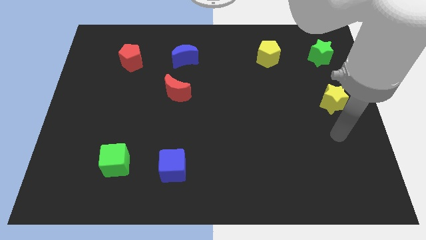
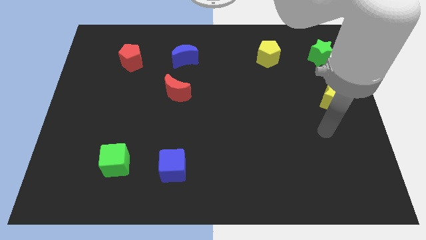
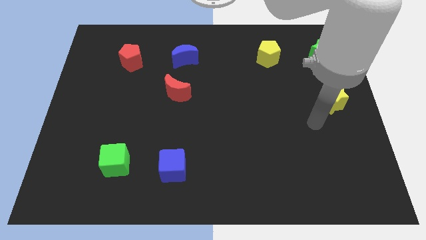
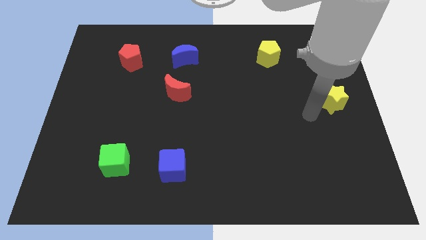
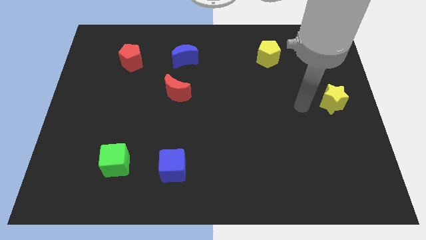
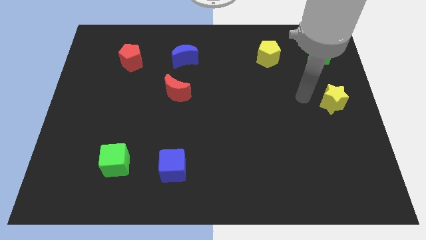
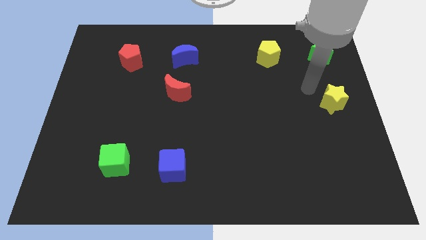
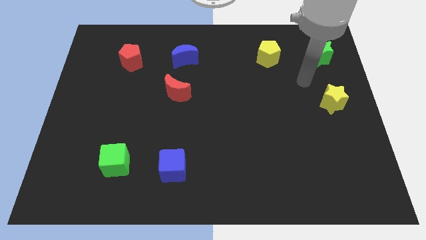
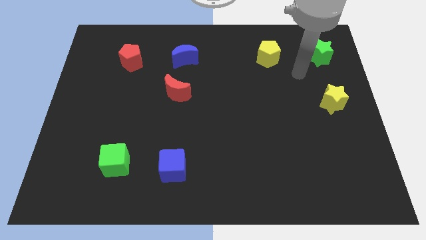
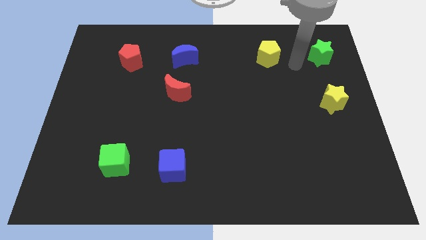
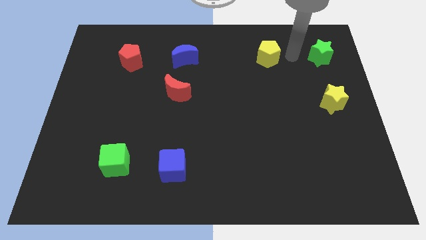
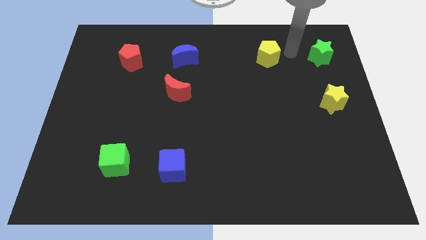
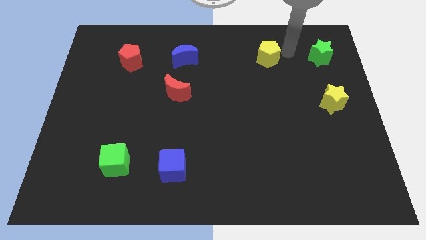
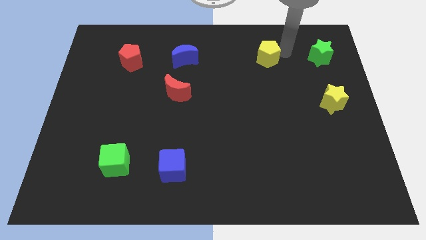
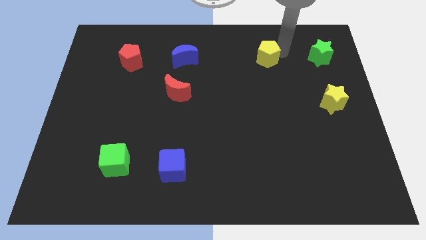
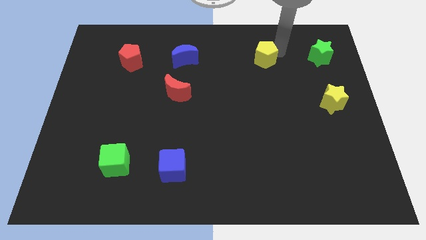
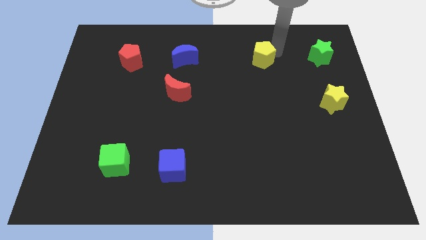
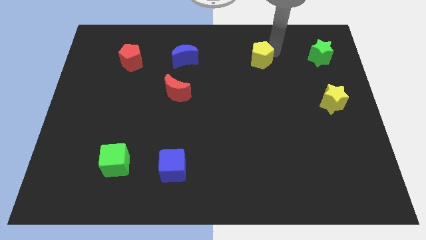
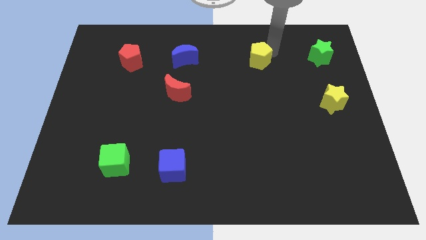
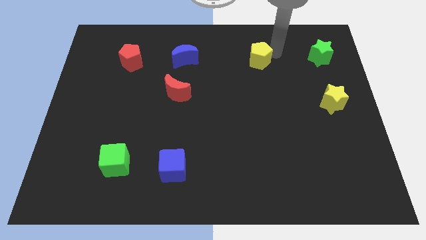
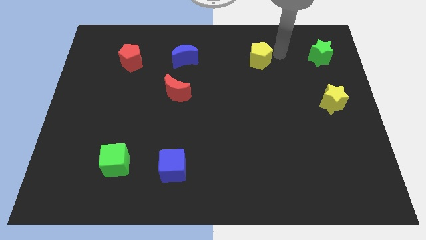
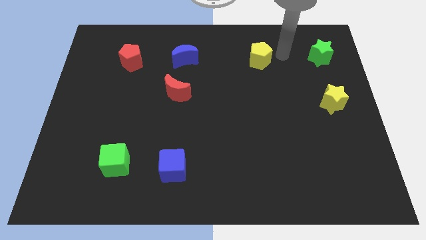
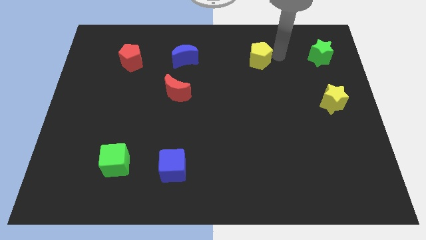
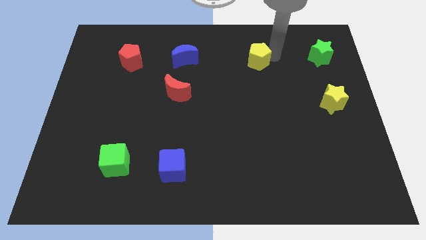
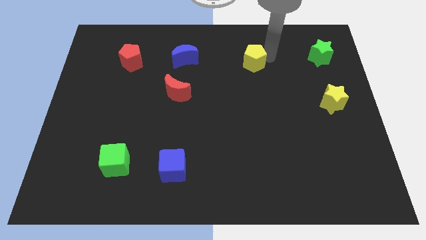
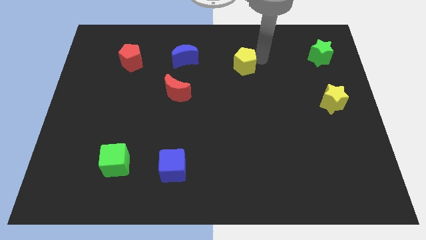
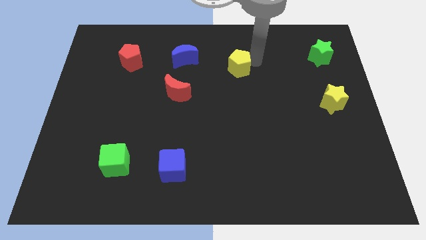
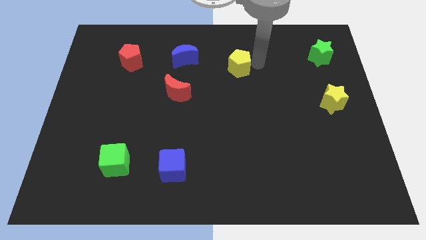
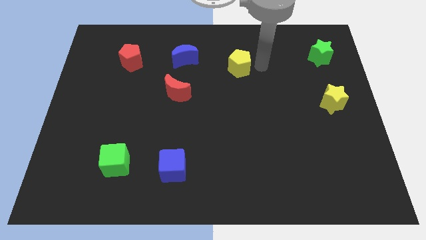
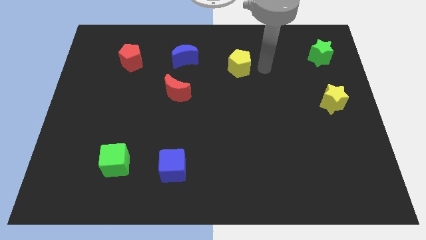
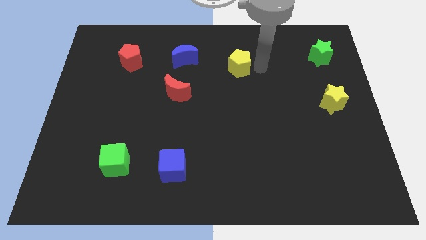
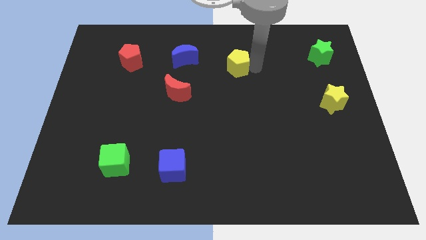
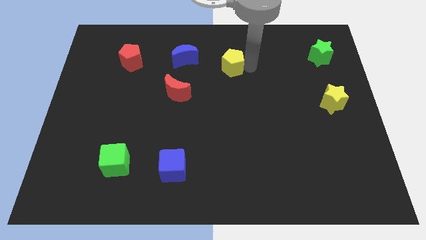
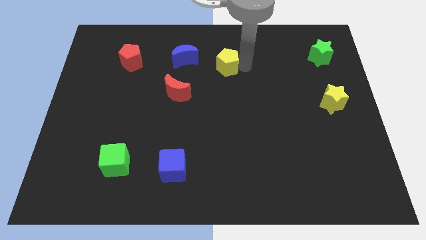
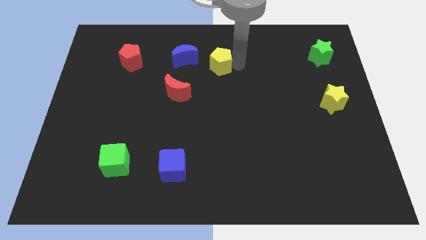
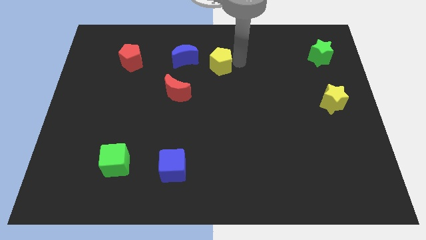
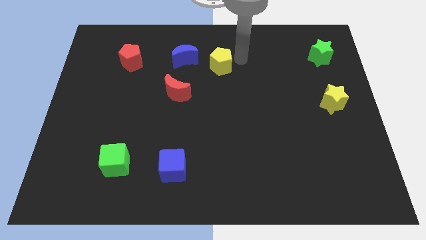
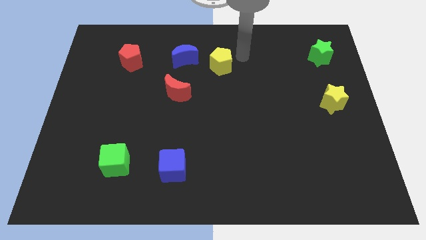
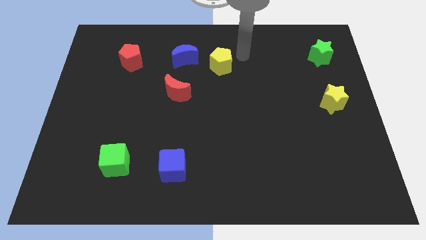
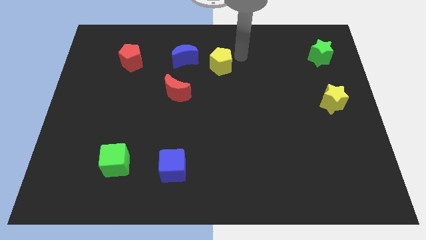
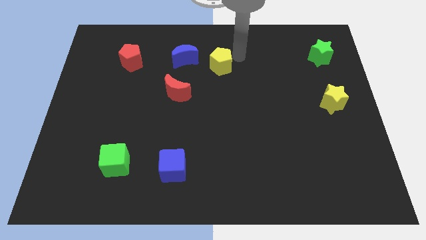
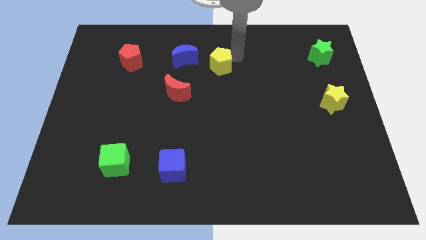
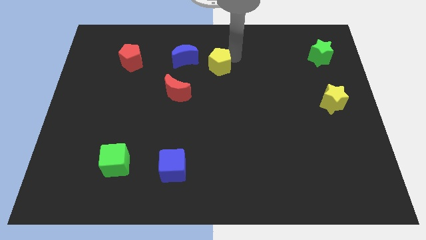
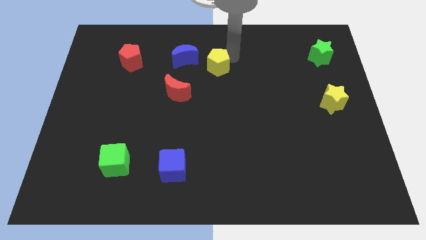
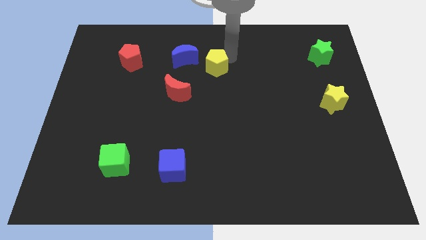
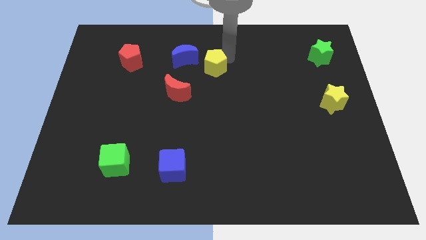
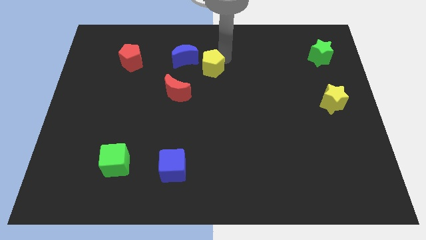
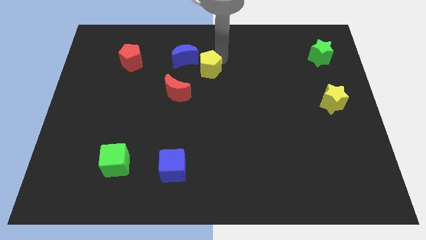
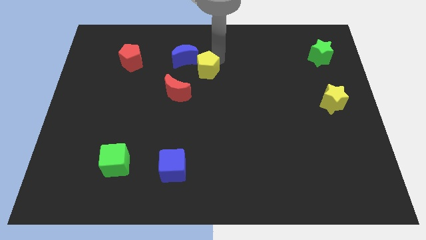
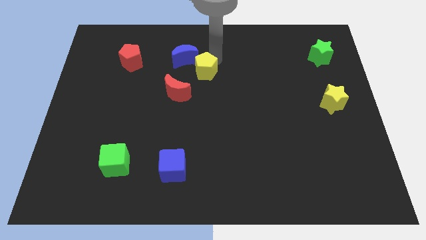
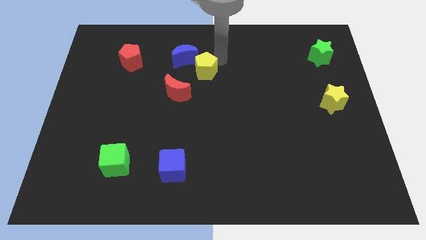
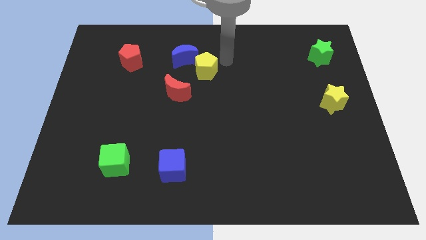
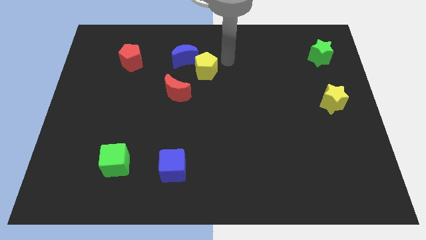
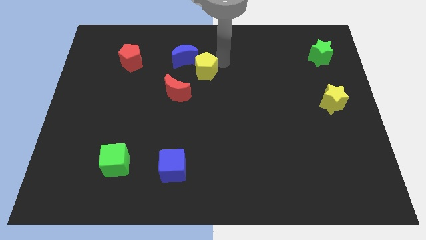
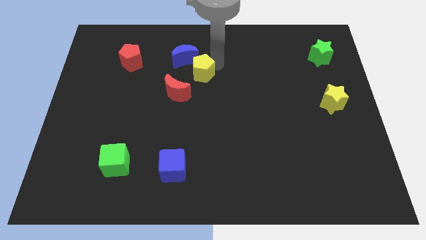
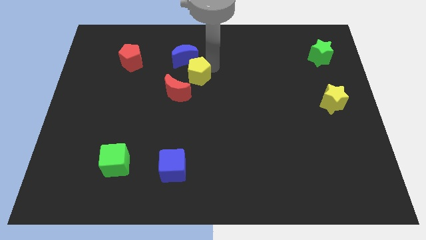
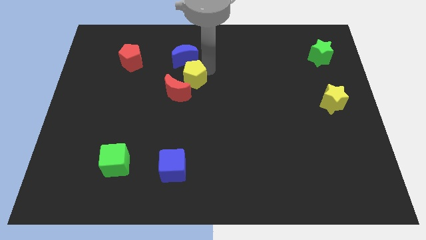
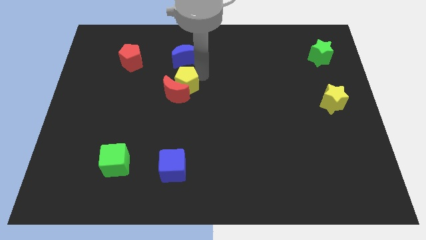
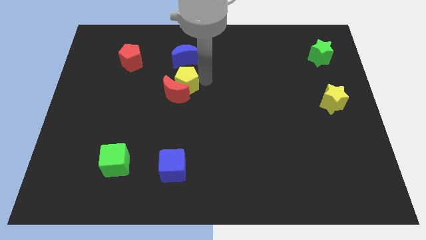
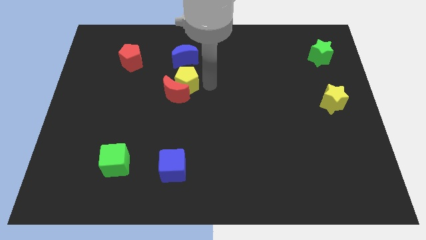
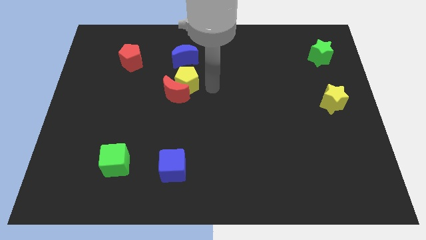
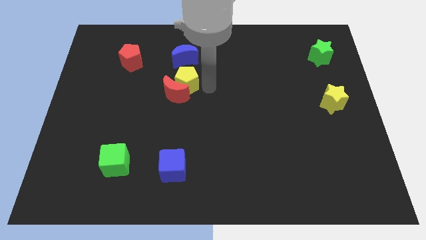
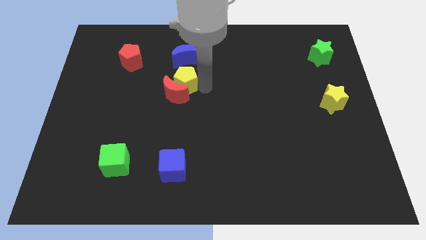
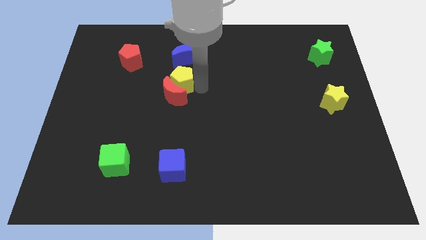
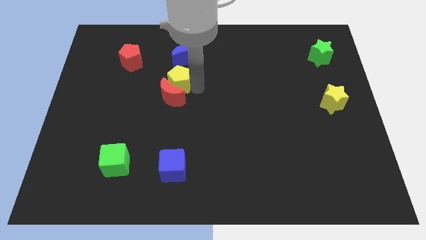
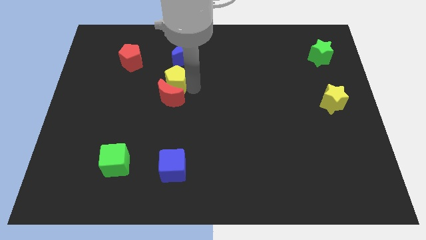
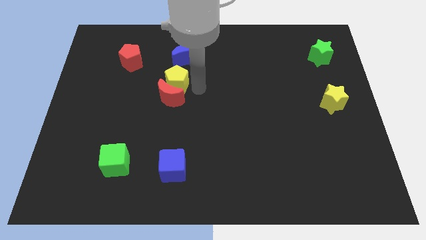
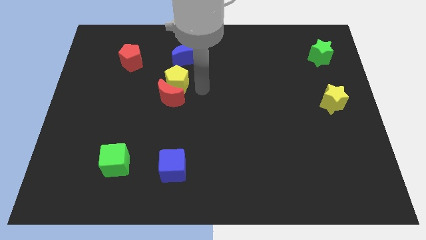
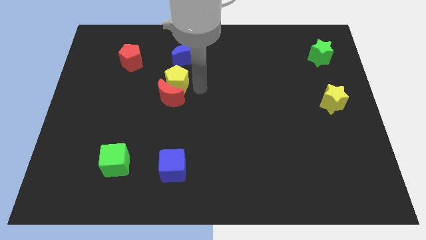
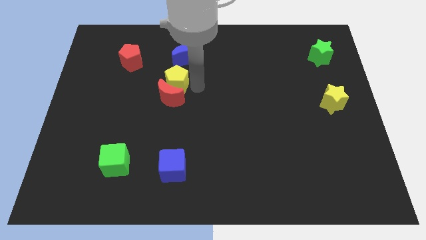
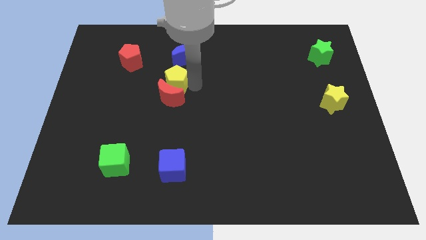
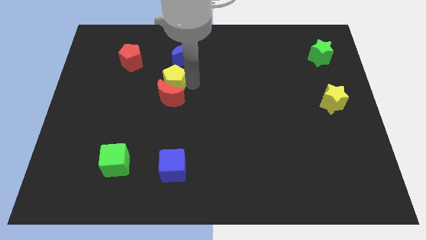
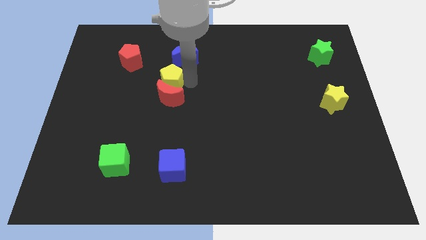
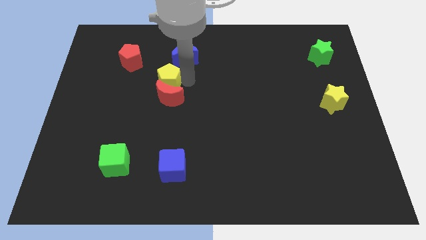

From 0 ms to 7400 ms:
push the yellow pentagon diagonally down and to the right of the red pentagon
